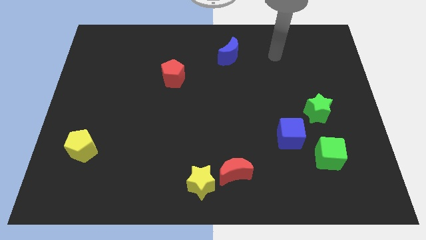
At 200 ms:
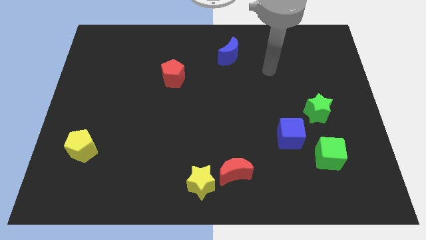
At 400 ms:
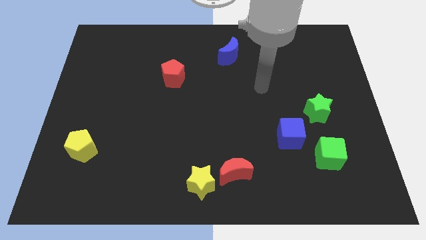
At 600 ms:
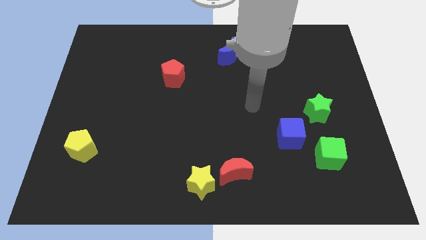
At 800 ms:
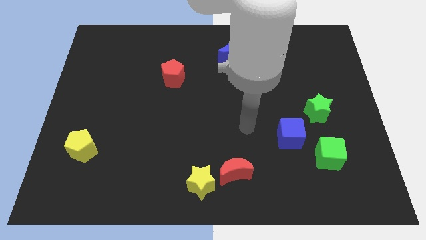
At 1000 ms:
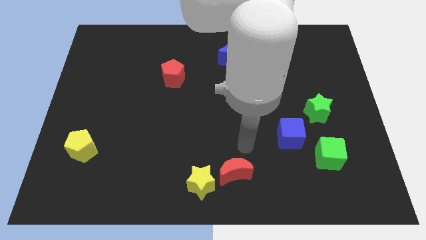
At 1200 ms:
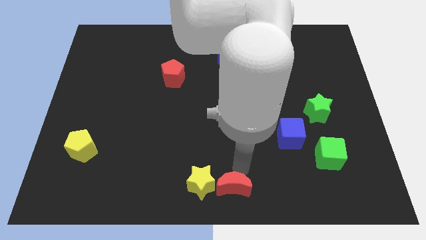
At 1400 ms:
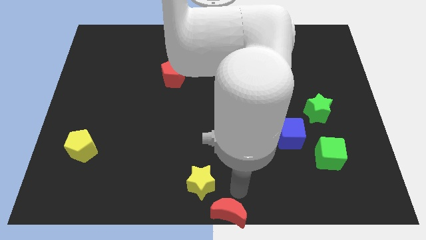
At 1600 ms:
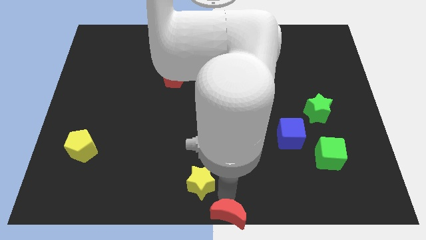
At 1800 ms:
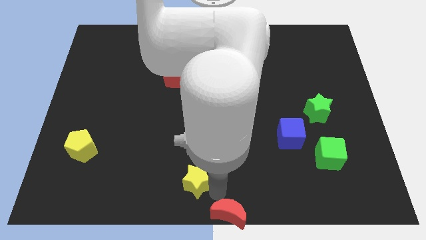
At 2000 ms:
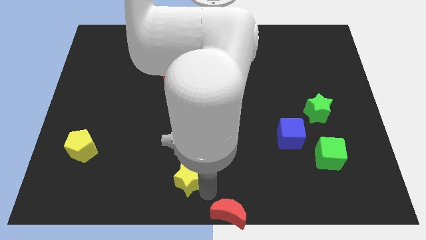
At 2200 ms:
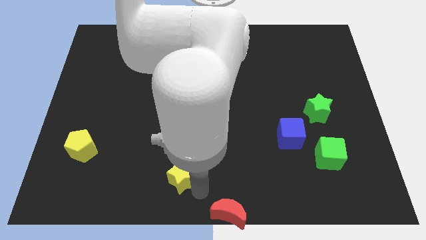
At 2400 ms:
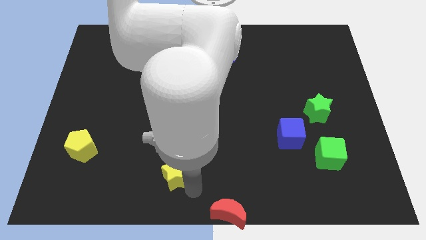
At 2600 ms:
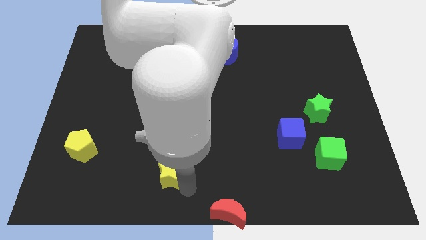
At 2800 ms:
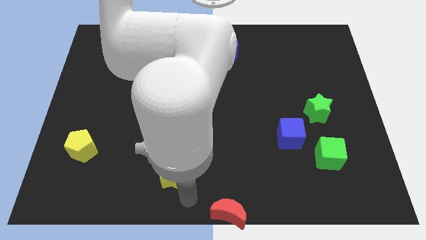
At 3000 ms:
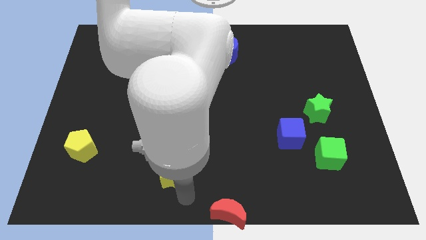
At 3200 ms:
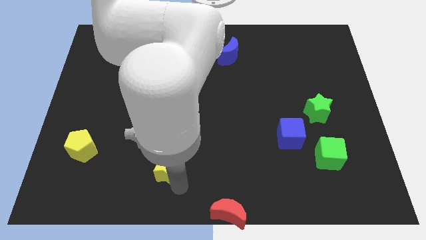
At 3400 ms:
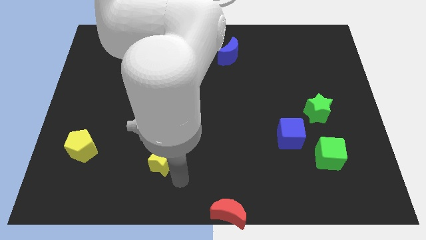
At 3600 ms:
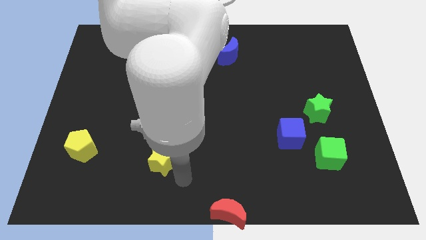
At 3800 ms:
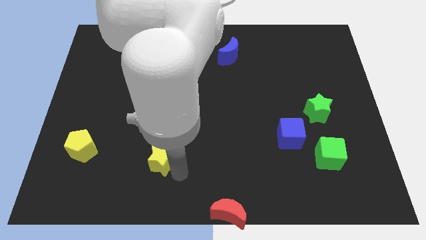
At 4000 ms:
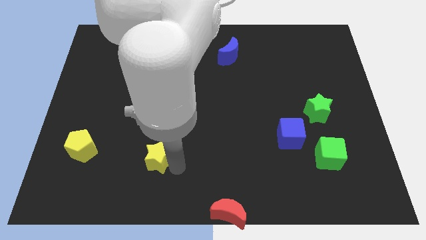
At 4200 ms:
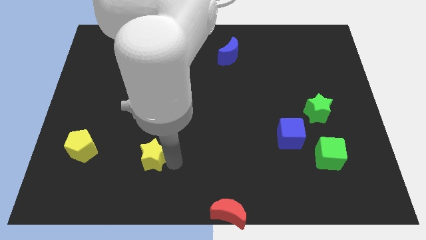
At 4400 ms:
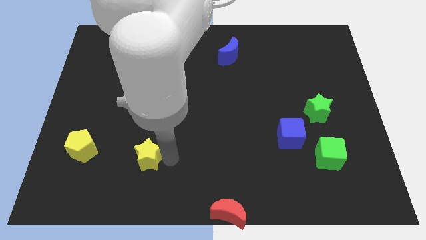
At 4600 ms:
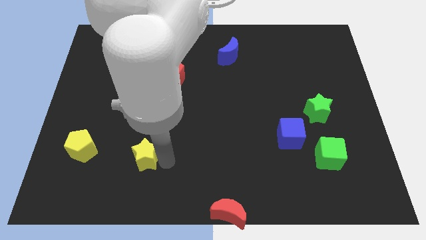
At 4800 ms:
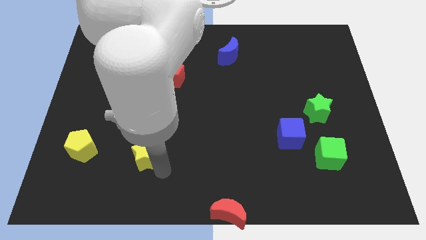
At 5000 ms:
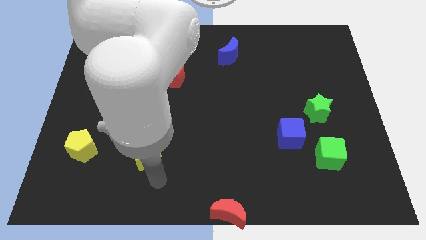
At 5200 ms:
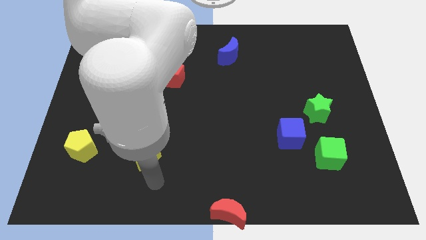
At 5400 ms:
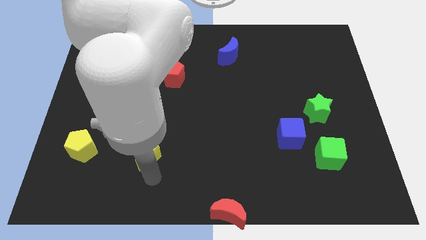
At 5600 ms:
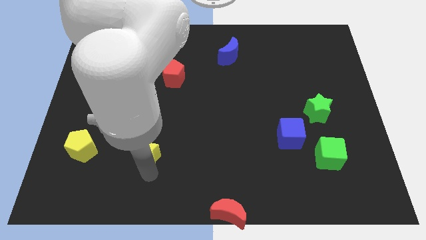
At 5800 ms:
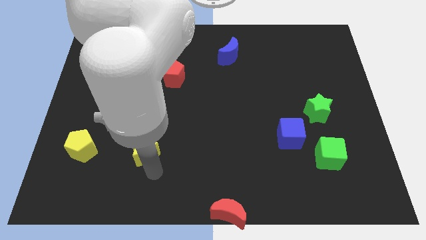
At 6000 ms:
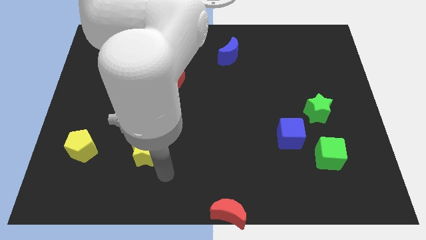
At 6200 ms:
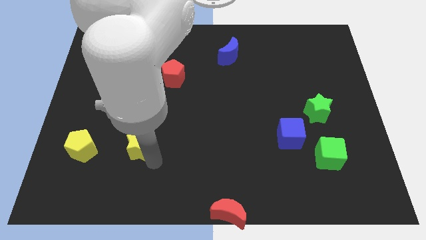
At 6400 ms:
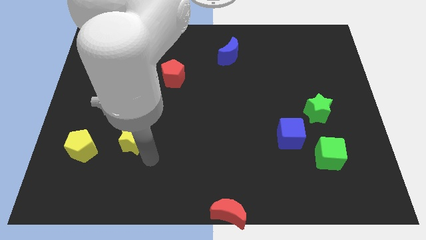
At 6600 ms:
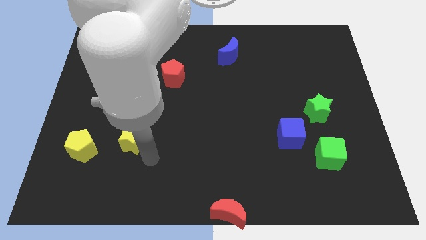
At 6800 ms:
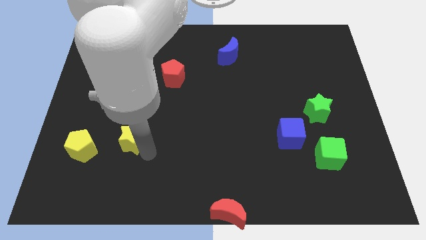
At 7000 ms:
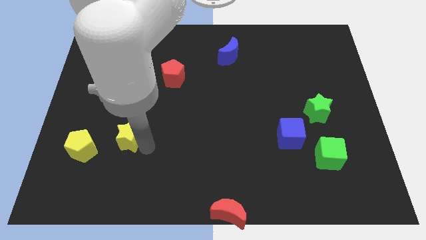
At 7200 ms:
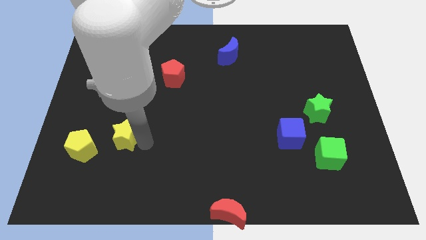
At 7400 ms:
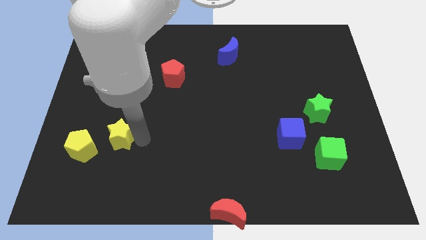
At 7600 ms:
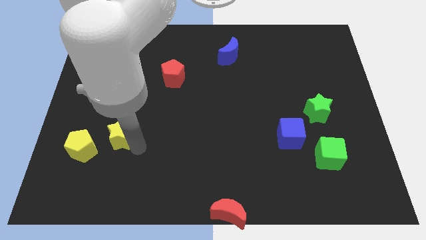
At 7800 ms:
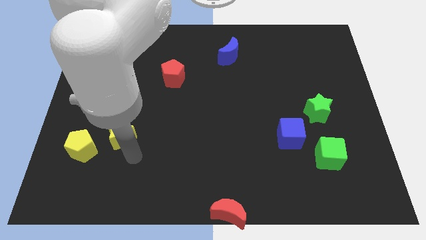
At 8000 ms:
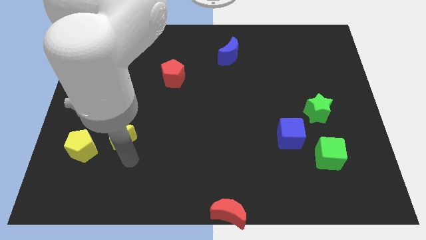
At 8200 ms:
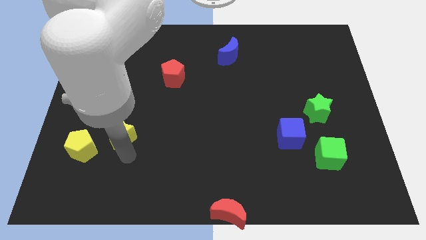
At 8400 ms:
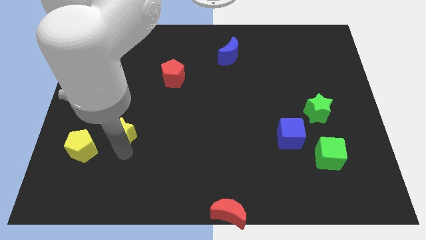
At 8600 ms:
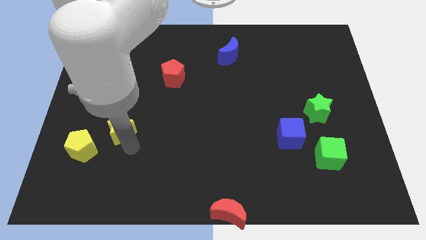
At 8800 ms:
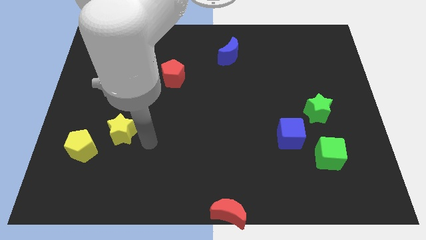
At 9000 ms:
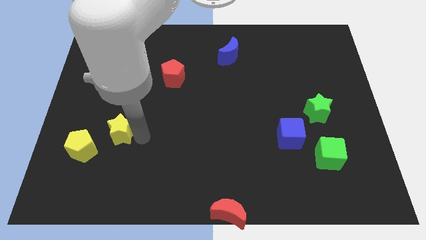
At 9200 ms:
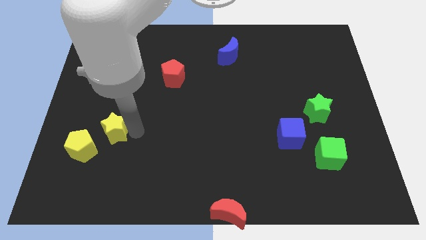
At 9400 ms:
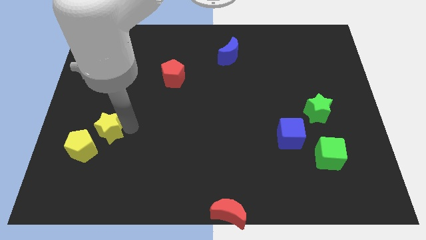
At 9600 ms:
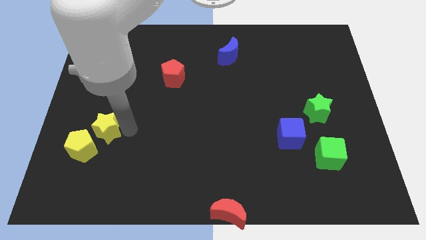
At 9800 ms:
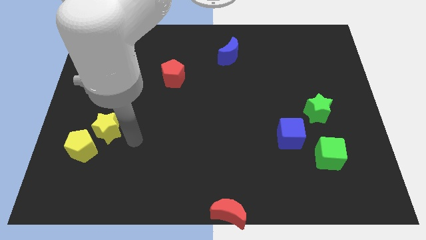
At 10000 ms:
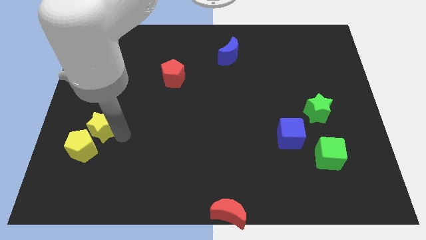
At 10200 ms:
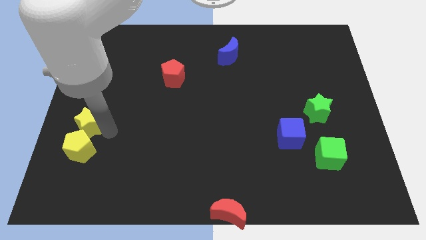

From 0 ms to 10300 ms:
slide the yellow star to the left side

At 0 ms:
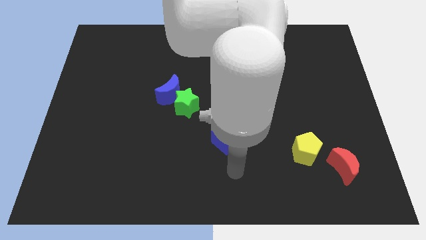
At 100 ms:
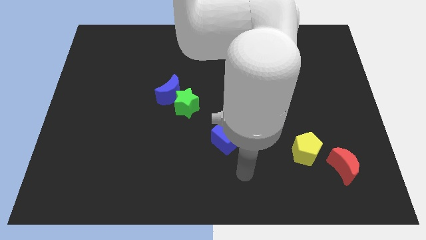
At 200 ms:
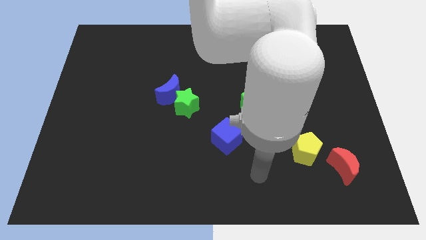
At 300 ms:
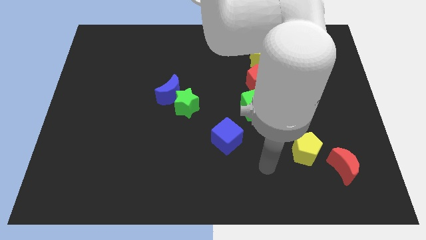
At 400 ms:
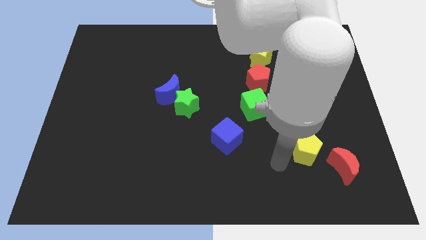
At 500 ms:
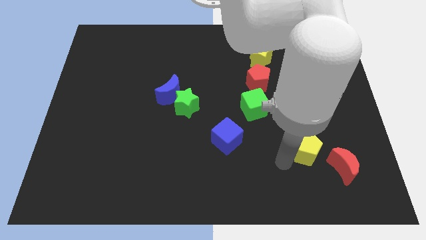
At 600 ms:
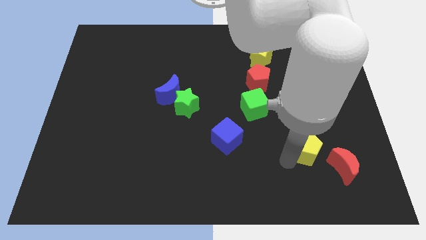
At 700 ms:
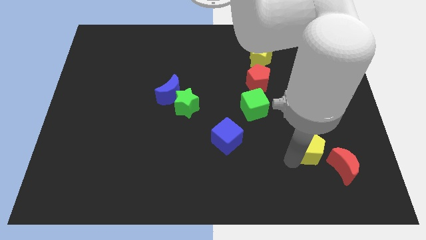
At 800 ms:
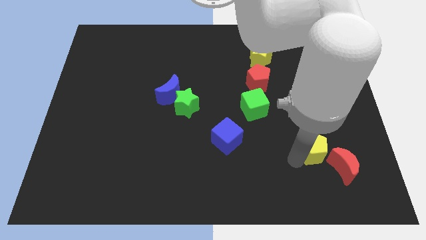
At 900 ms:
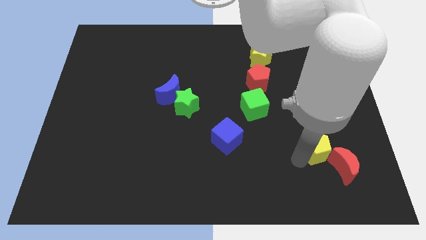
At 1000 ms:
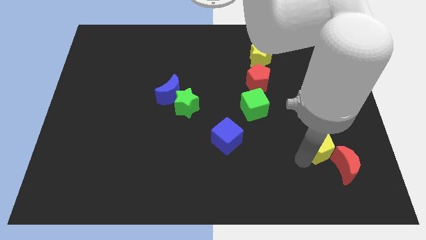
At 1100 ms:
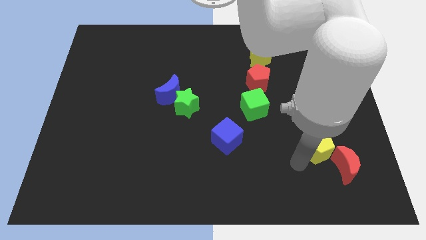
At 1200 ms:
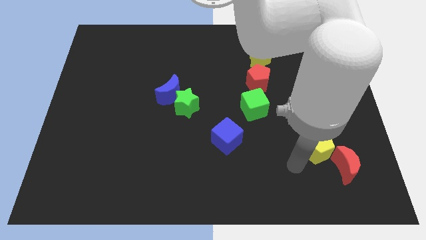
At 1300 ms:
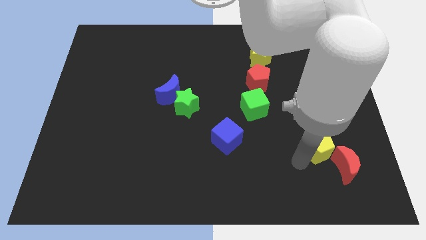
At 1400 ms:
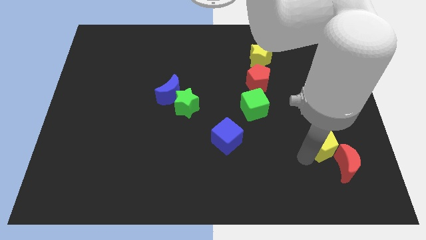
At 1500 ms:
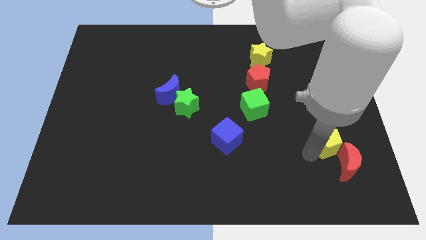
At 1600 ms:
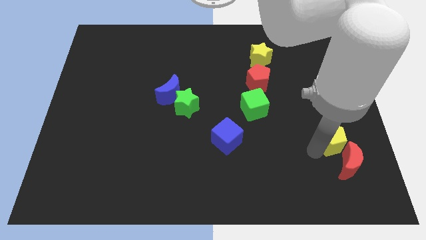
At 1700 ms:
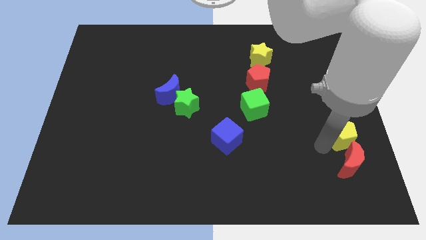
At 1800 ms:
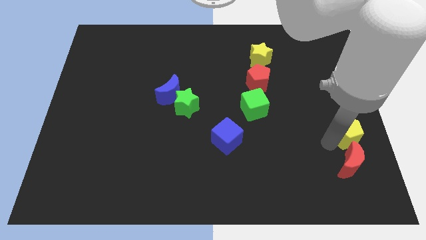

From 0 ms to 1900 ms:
slide the yellow pentagon to the right side
